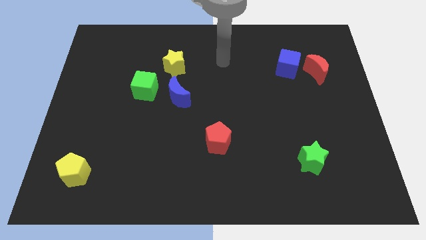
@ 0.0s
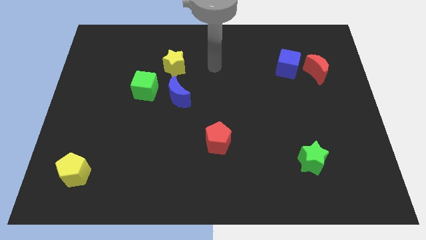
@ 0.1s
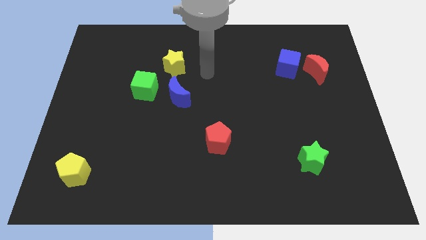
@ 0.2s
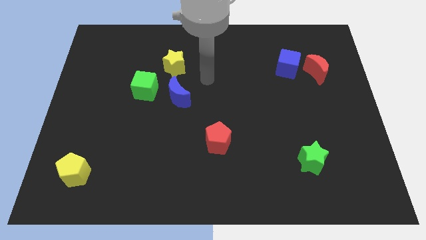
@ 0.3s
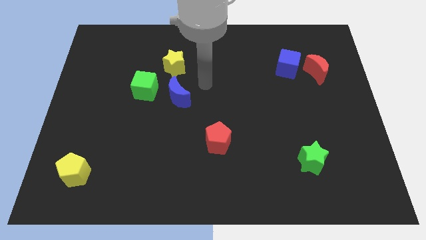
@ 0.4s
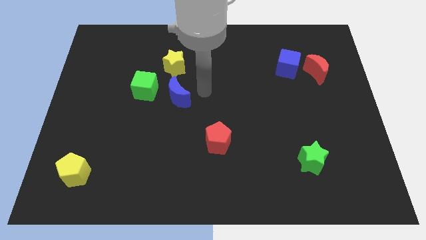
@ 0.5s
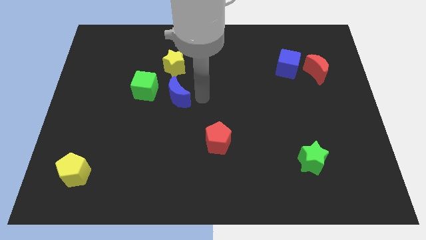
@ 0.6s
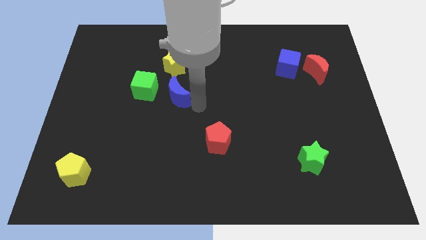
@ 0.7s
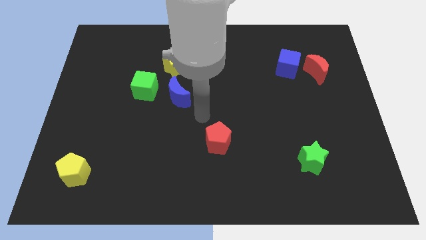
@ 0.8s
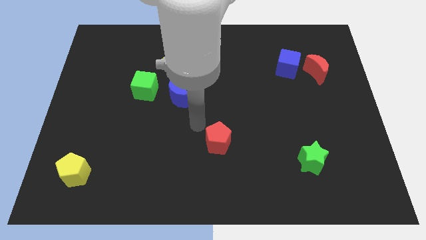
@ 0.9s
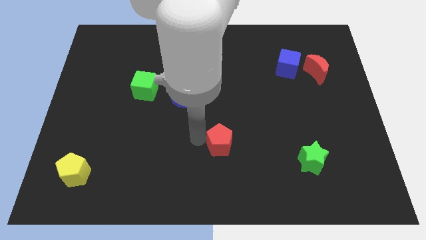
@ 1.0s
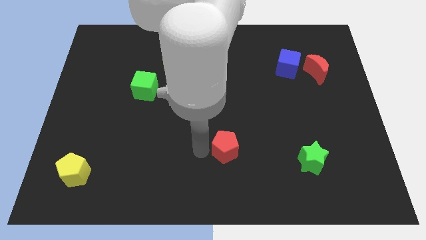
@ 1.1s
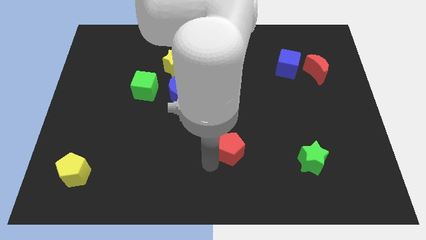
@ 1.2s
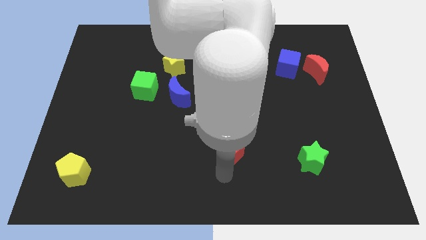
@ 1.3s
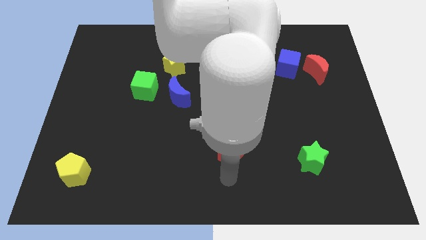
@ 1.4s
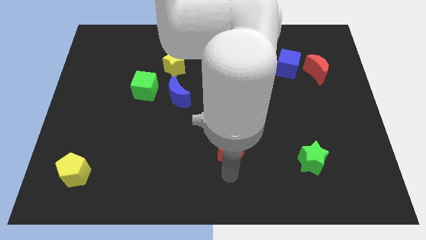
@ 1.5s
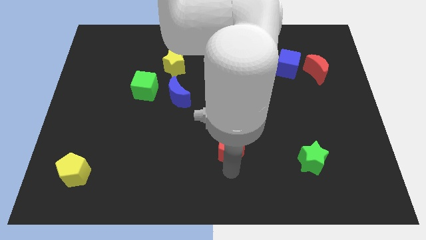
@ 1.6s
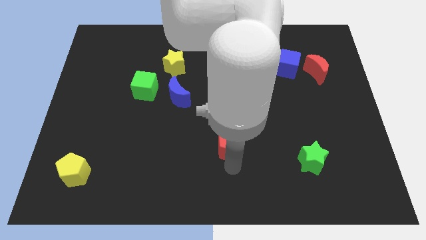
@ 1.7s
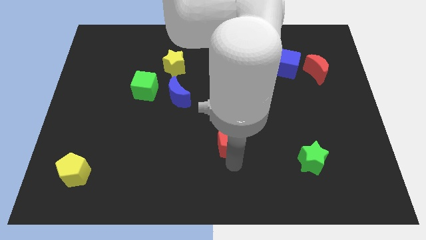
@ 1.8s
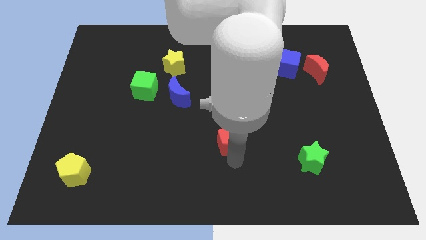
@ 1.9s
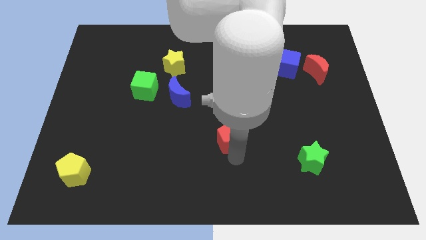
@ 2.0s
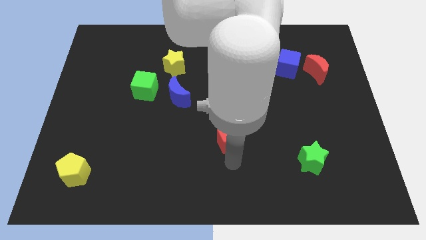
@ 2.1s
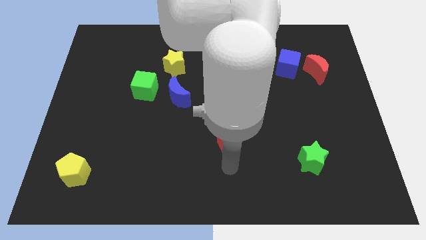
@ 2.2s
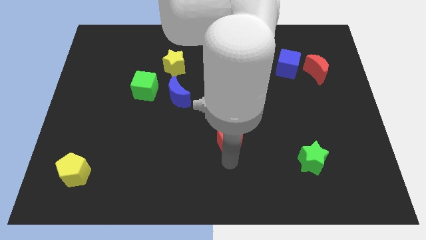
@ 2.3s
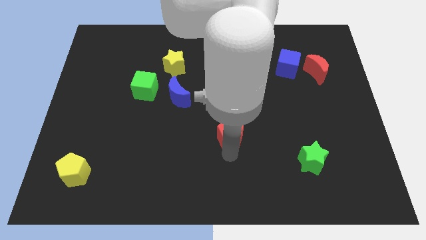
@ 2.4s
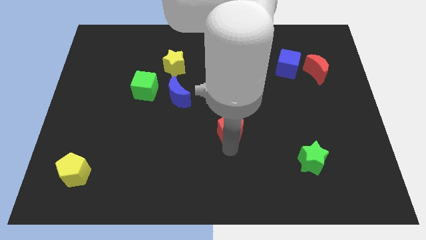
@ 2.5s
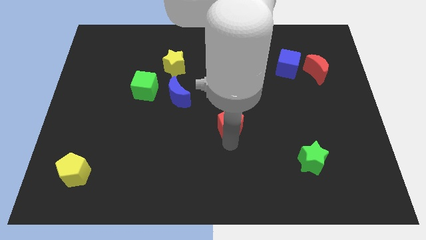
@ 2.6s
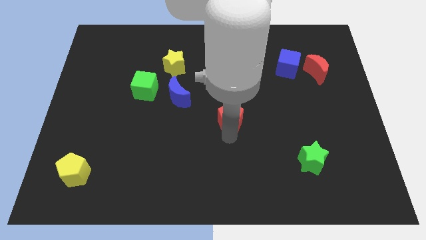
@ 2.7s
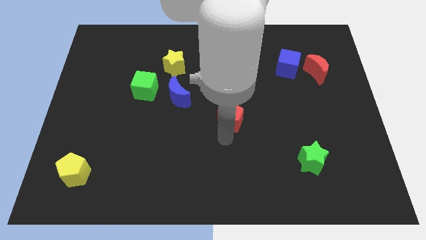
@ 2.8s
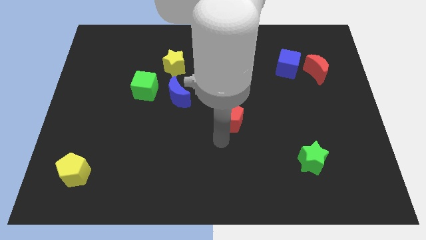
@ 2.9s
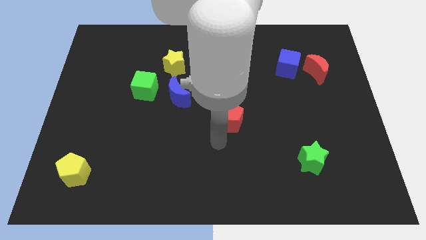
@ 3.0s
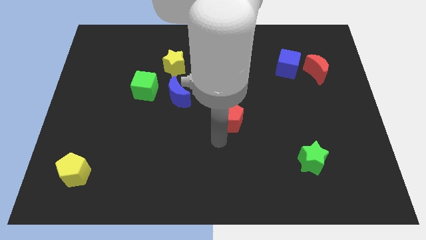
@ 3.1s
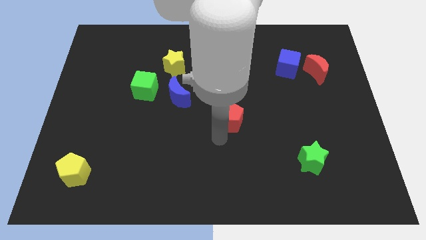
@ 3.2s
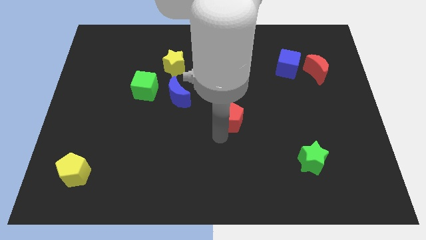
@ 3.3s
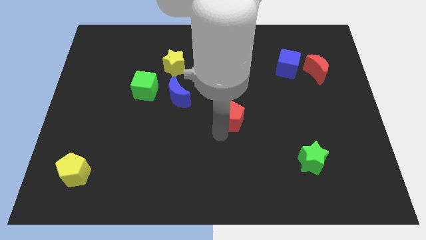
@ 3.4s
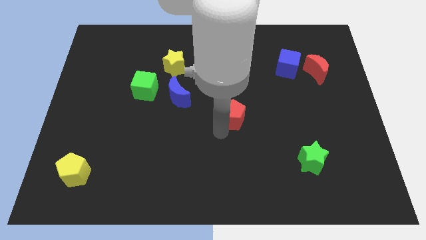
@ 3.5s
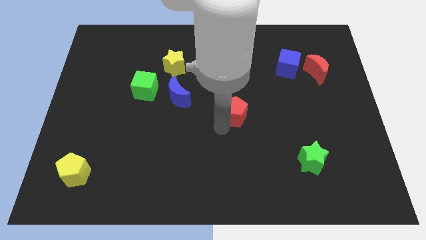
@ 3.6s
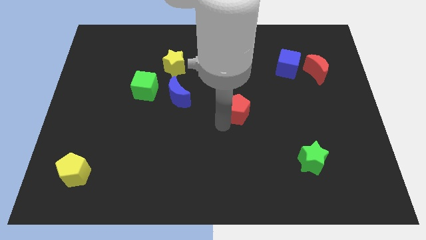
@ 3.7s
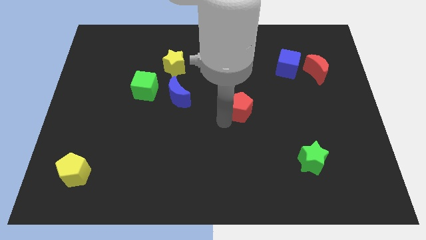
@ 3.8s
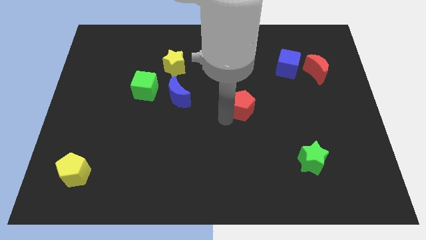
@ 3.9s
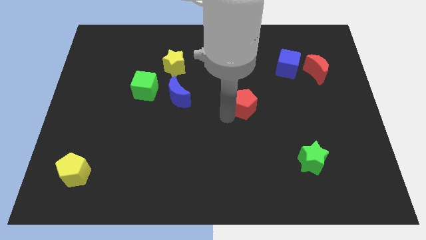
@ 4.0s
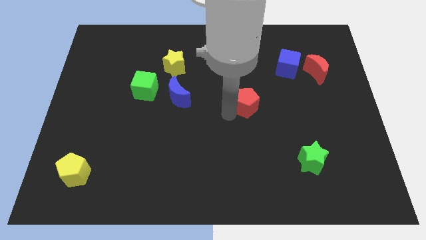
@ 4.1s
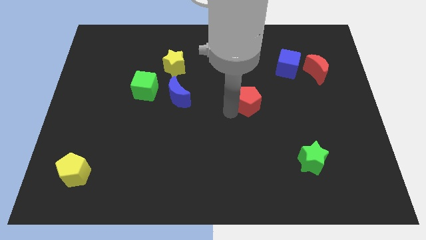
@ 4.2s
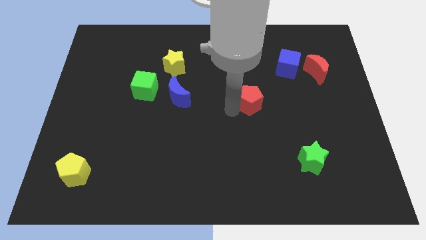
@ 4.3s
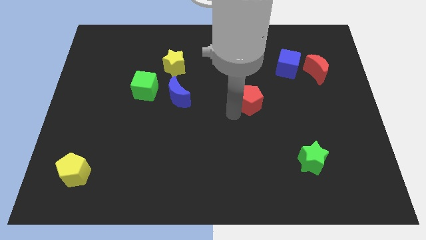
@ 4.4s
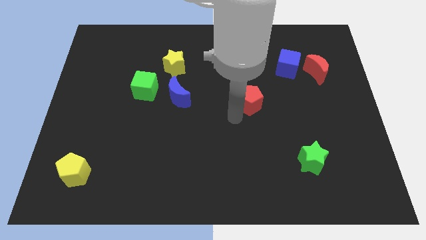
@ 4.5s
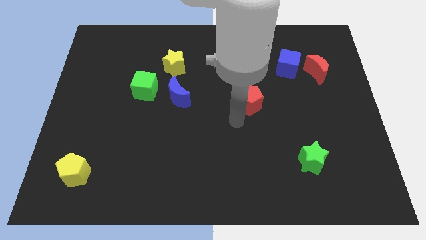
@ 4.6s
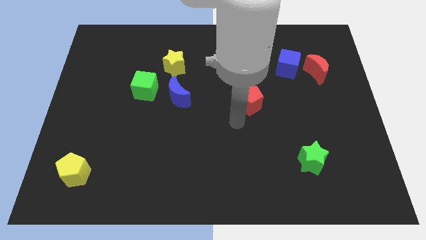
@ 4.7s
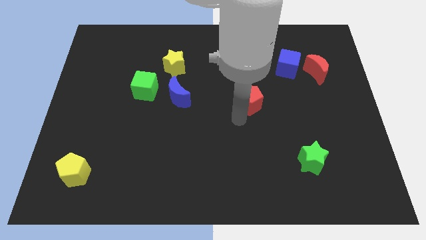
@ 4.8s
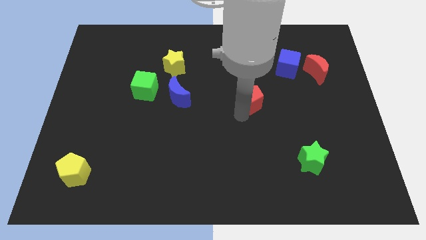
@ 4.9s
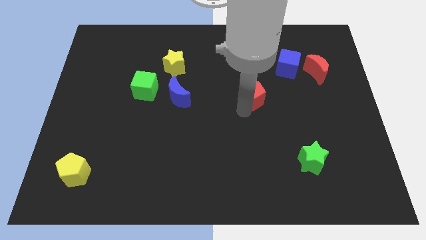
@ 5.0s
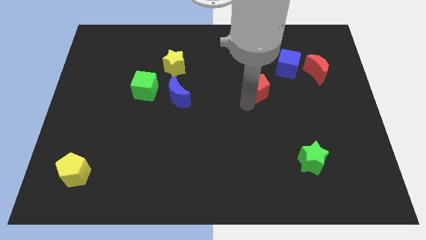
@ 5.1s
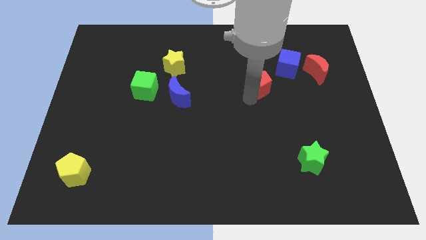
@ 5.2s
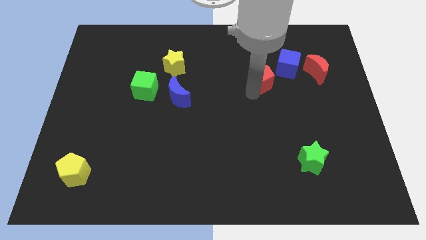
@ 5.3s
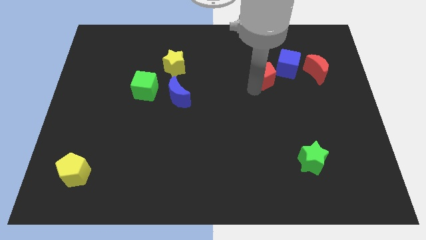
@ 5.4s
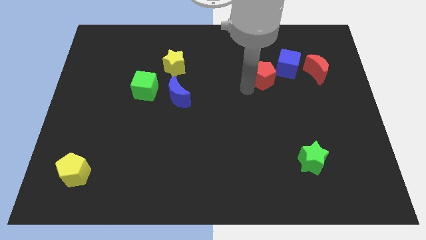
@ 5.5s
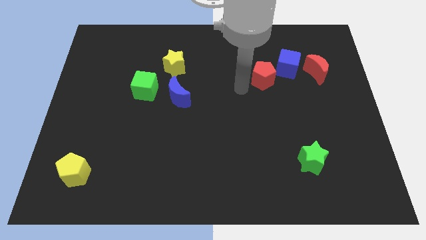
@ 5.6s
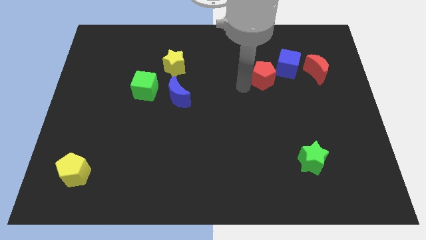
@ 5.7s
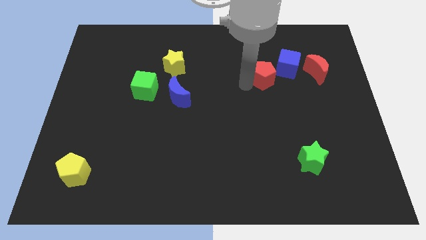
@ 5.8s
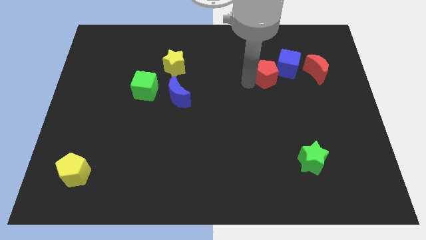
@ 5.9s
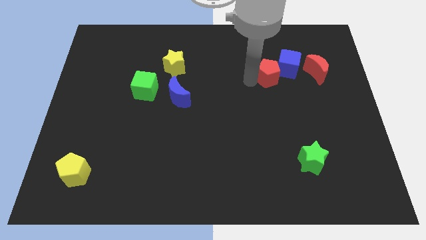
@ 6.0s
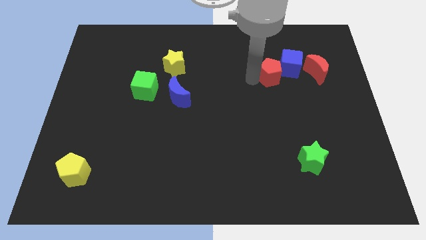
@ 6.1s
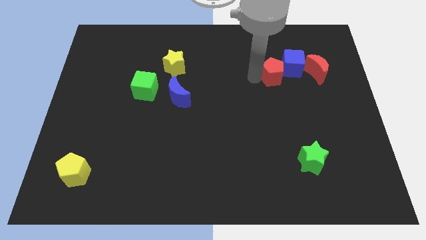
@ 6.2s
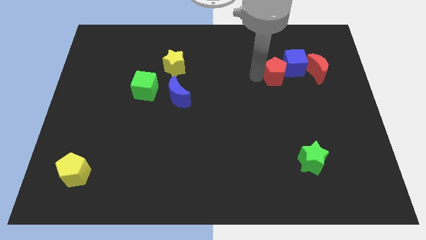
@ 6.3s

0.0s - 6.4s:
push the red pentagon to the blue cube

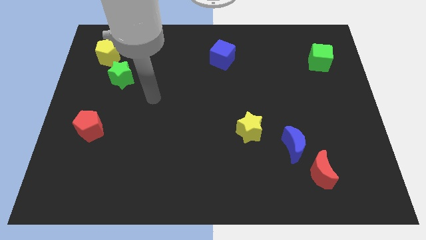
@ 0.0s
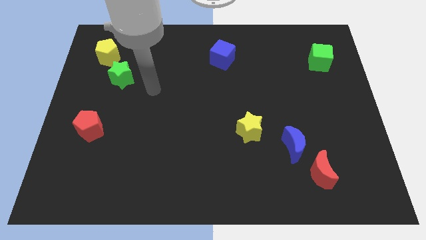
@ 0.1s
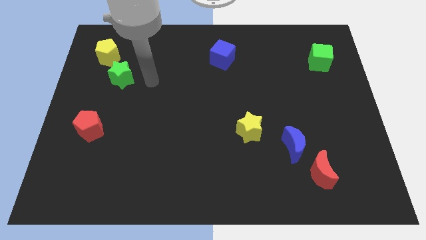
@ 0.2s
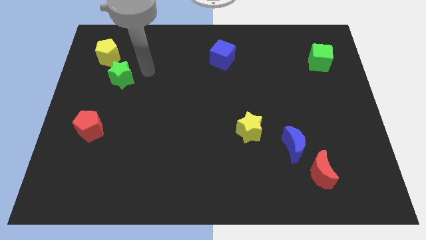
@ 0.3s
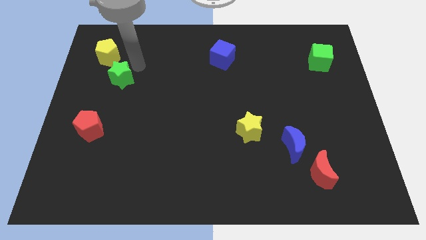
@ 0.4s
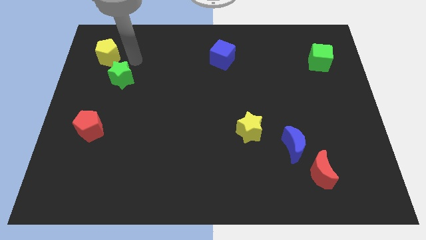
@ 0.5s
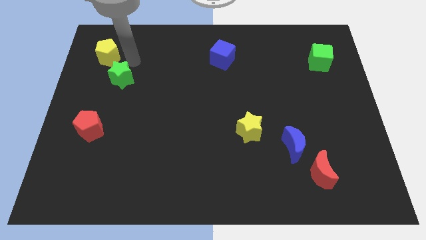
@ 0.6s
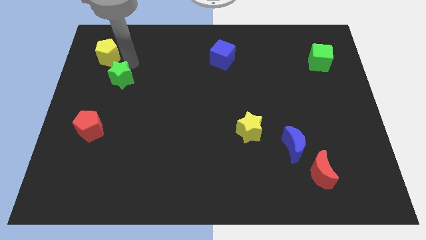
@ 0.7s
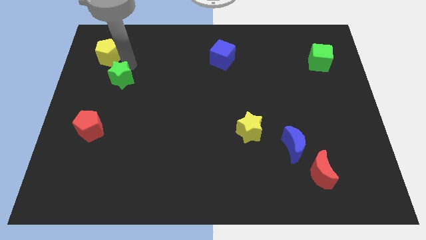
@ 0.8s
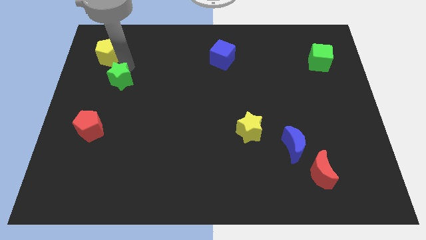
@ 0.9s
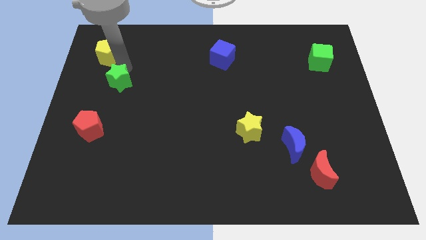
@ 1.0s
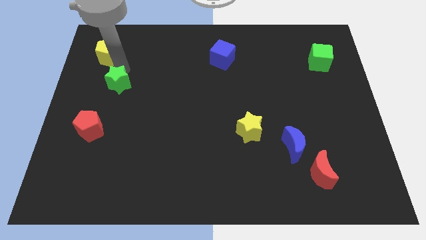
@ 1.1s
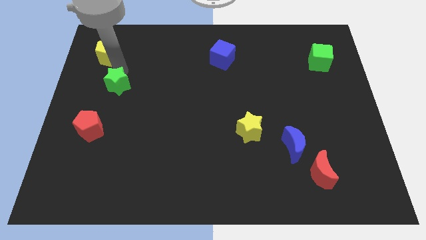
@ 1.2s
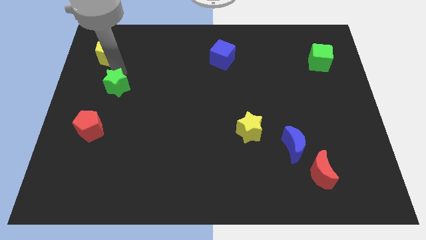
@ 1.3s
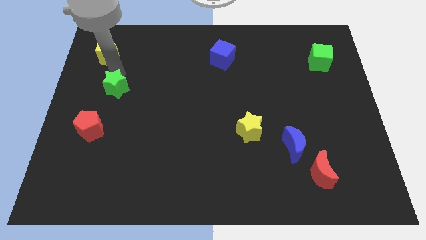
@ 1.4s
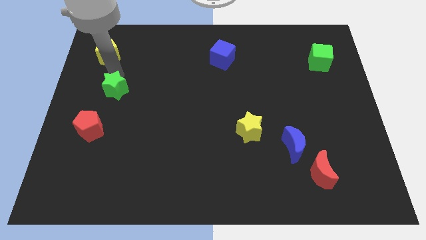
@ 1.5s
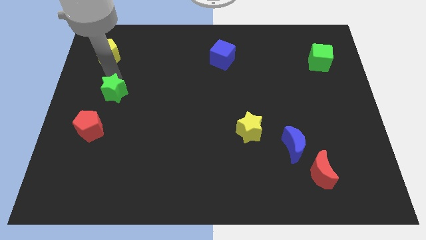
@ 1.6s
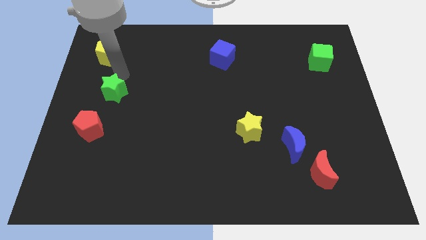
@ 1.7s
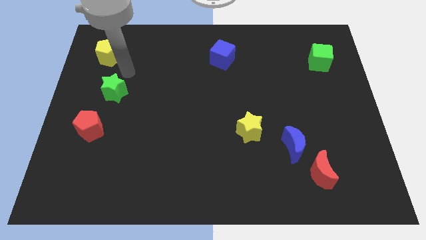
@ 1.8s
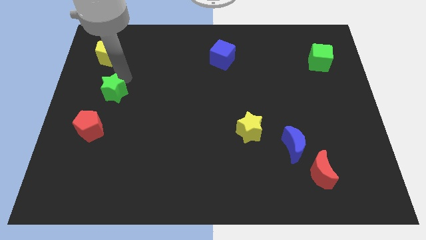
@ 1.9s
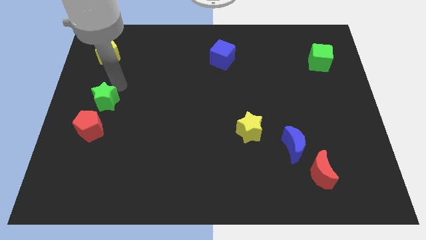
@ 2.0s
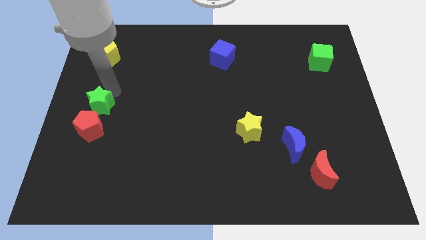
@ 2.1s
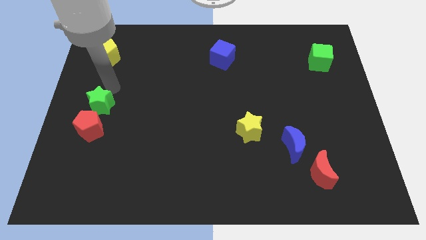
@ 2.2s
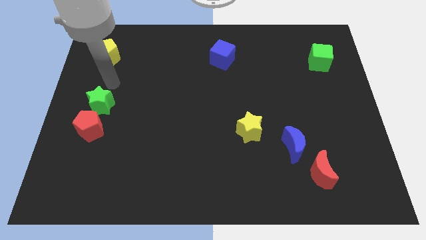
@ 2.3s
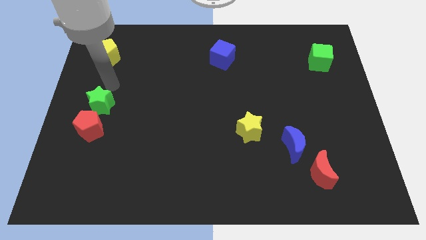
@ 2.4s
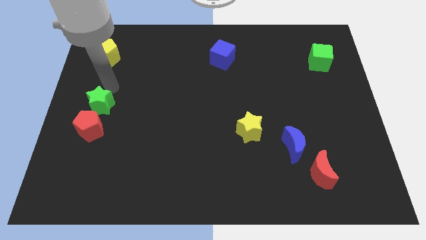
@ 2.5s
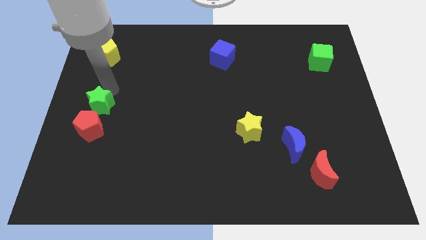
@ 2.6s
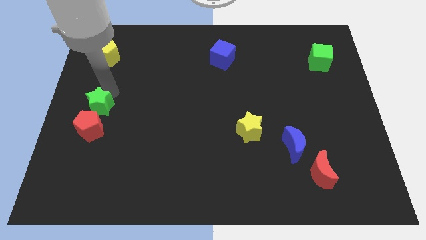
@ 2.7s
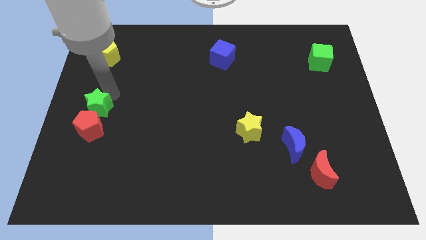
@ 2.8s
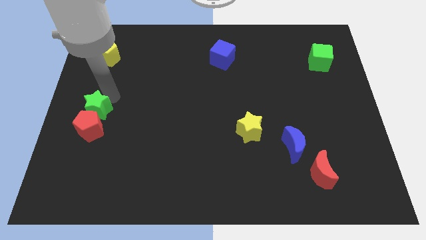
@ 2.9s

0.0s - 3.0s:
push the green star towards the red pentagon
